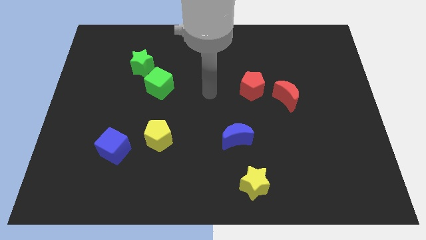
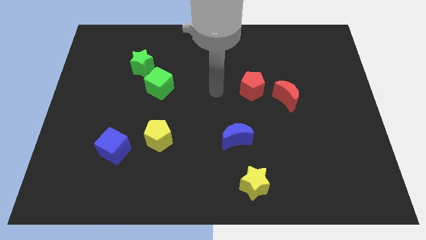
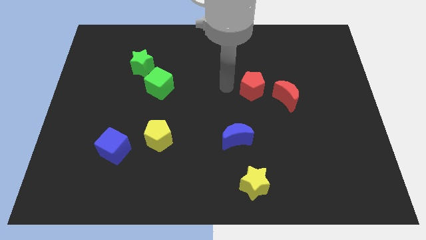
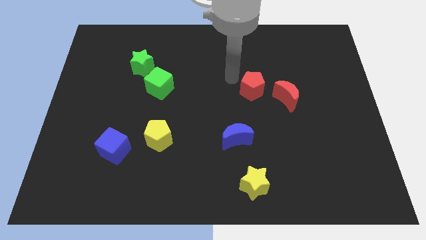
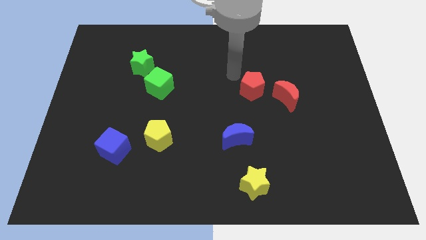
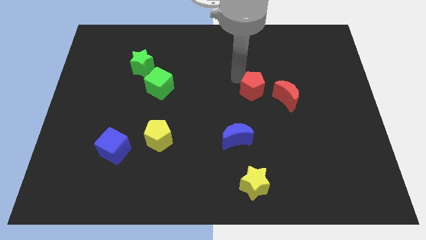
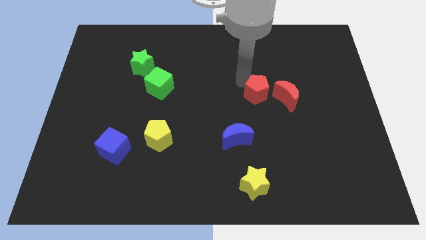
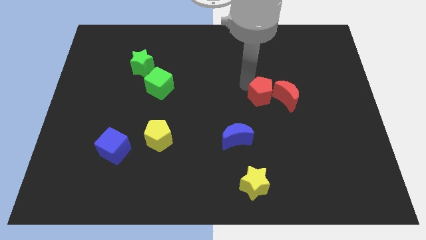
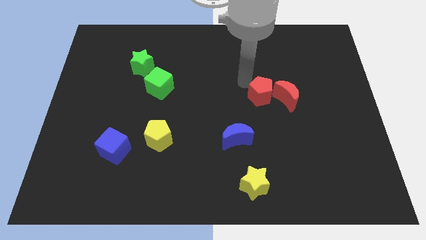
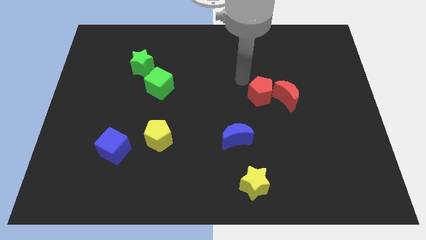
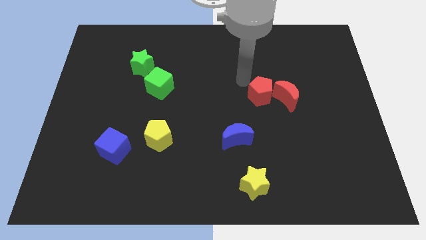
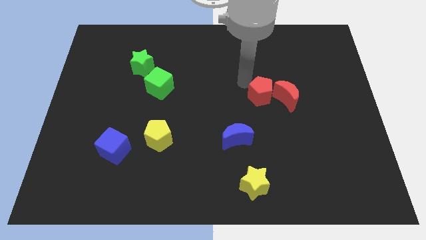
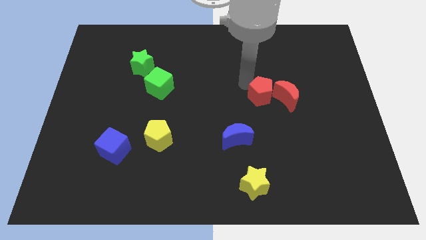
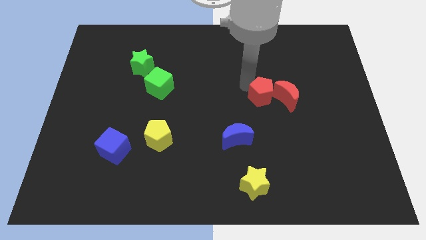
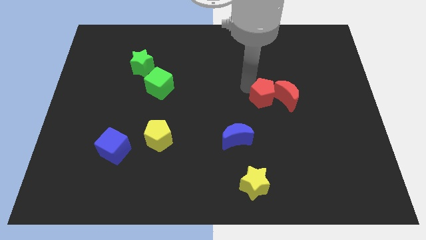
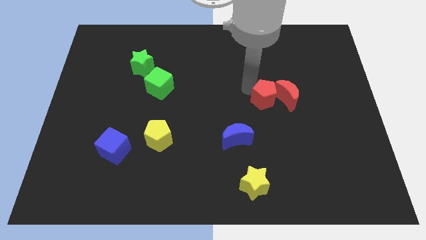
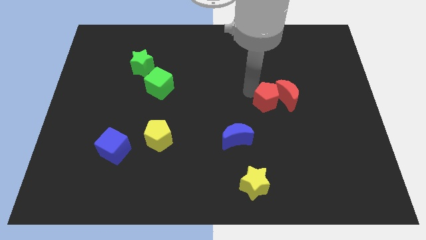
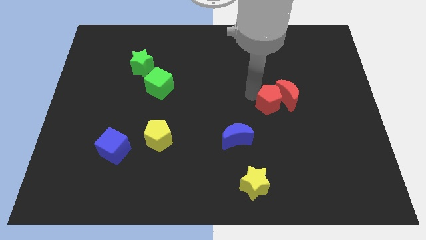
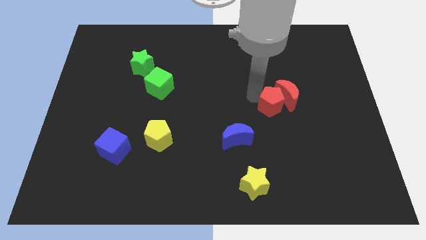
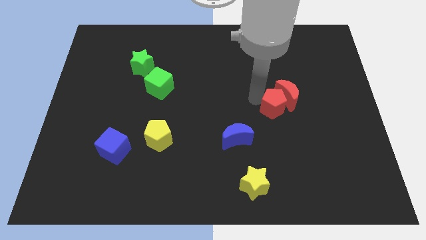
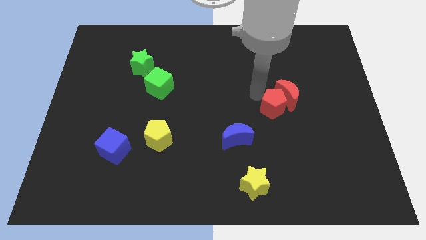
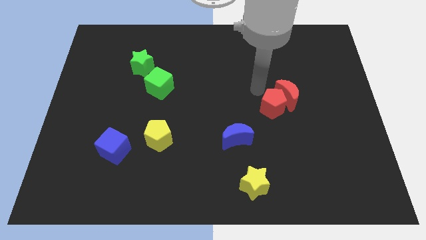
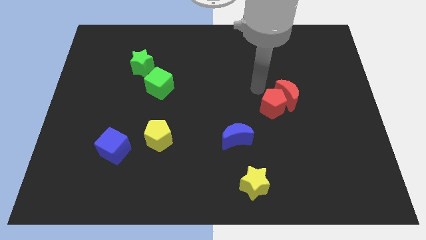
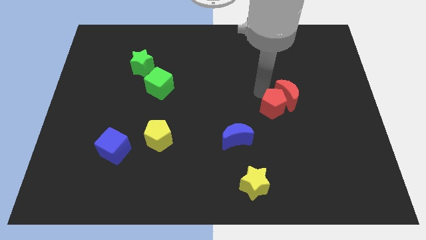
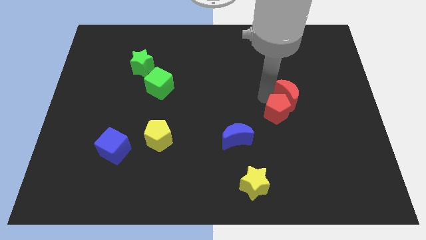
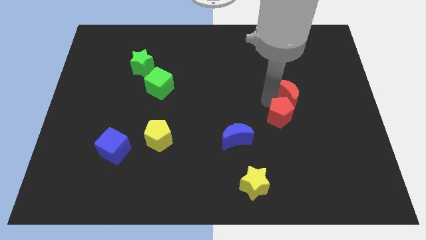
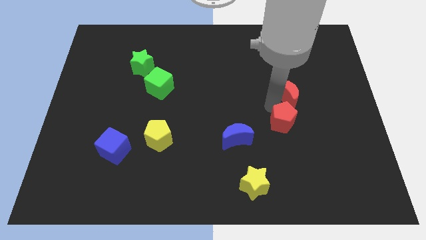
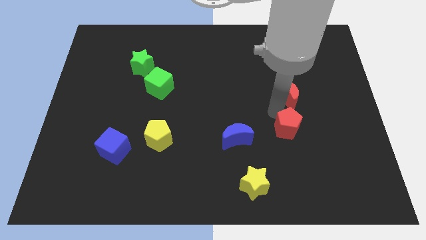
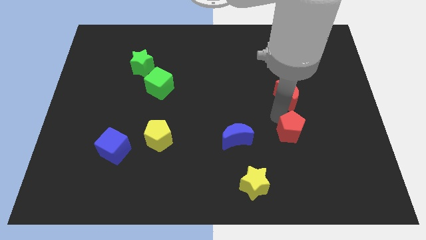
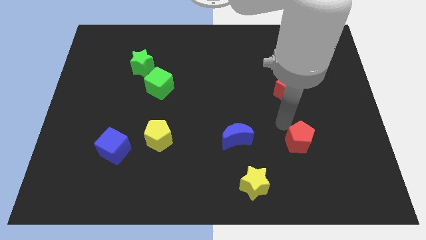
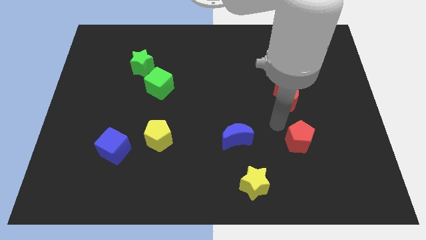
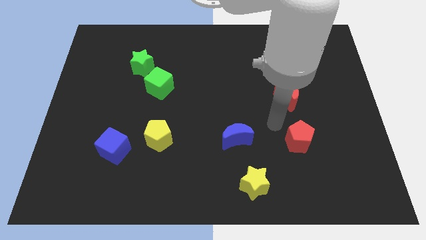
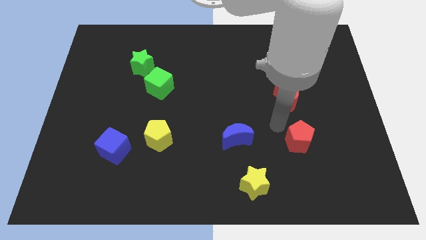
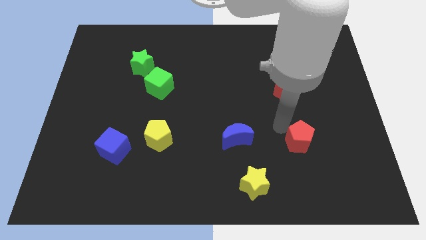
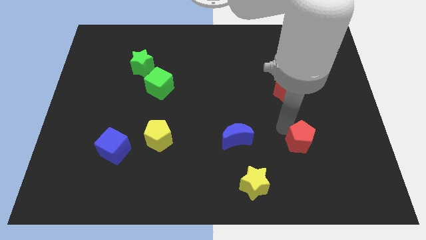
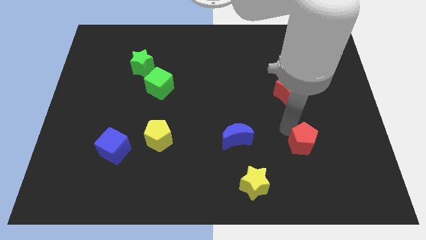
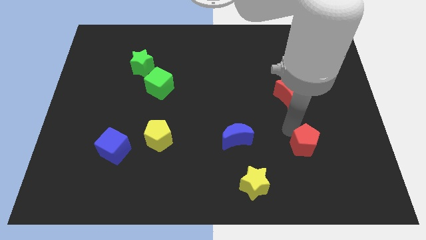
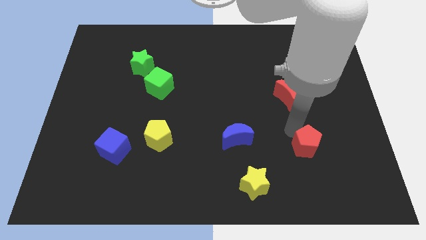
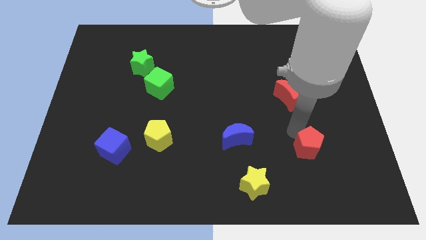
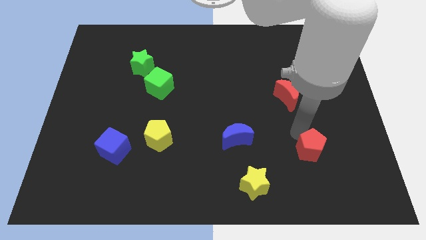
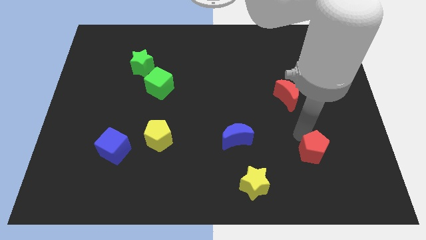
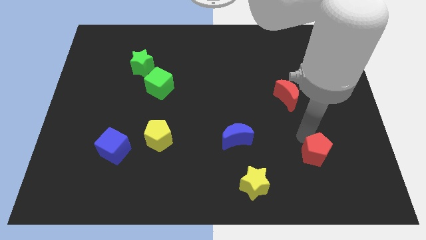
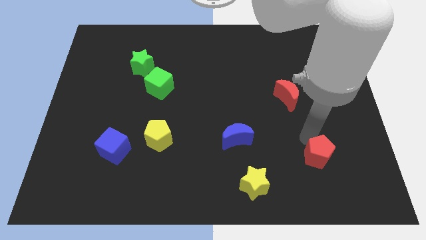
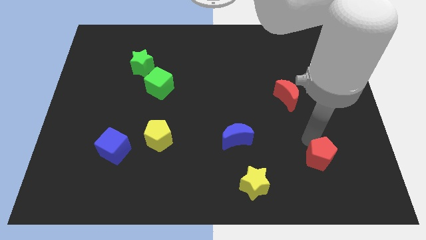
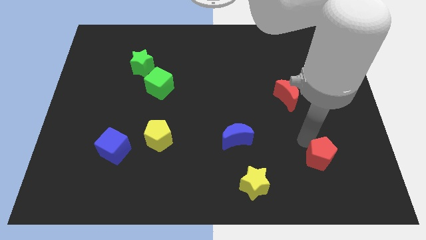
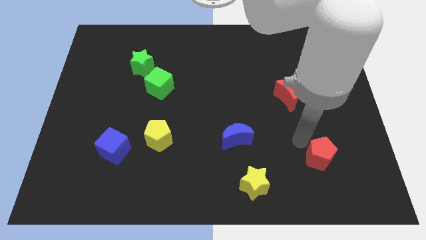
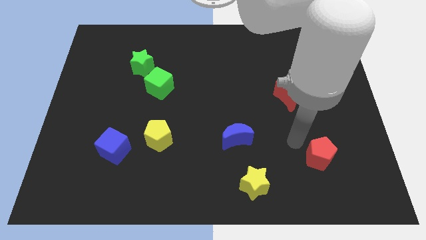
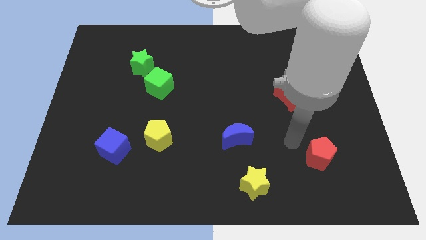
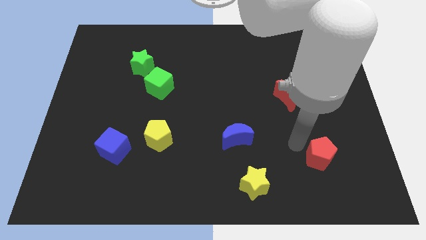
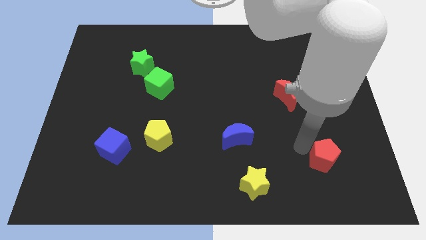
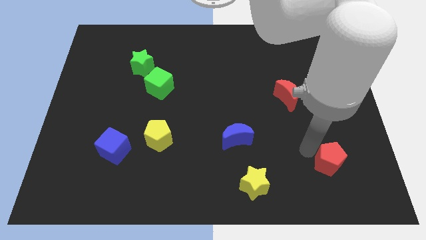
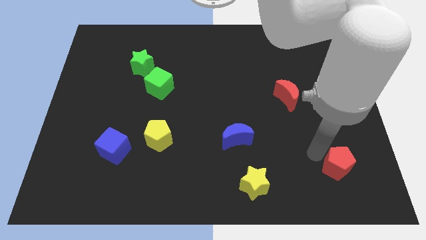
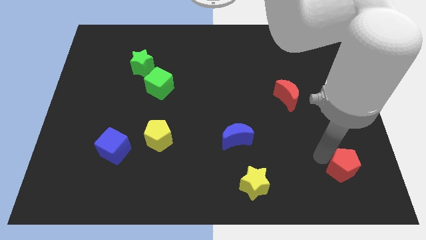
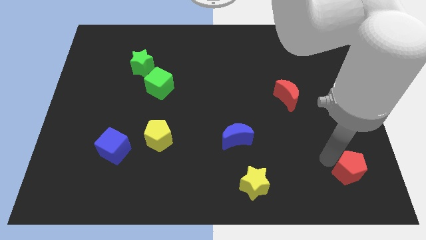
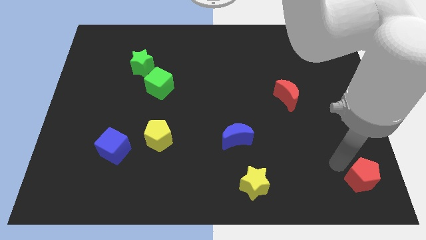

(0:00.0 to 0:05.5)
push the red pentagon to the bottom right of the board
